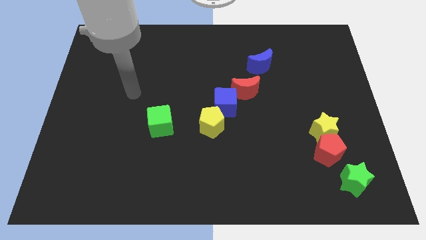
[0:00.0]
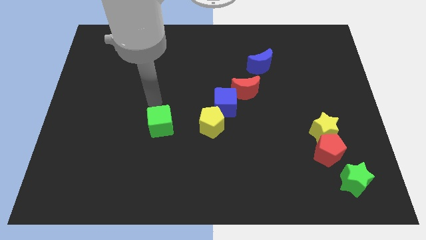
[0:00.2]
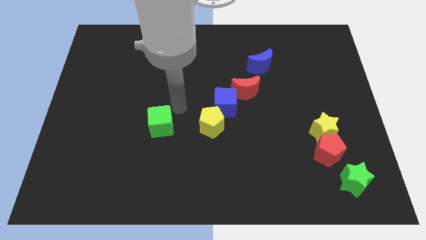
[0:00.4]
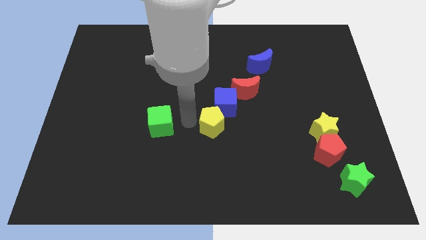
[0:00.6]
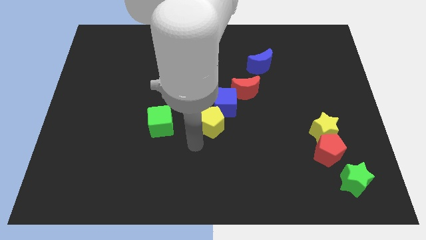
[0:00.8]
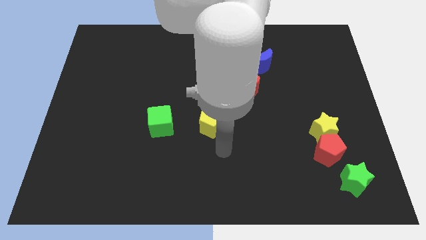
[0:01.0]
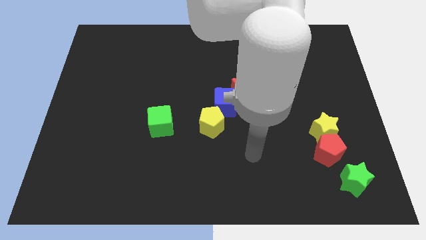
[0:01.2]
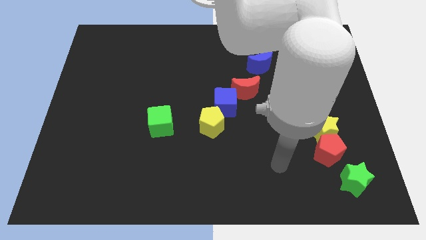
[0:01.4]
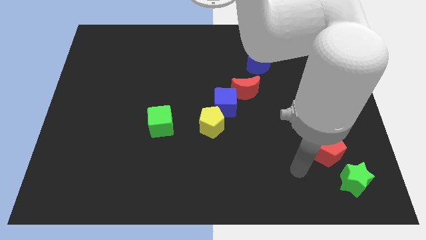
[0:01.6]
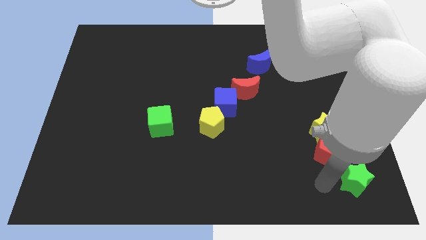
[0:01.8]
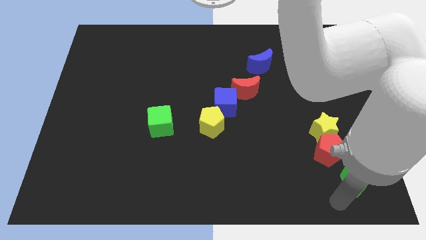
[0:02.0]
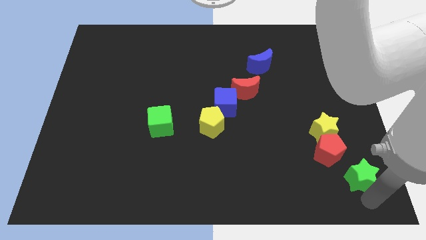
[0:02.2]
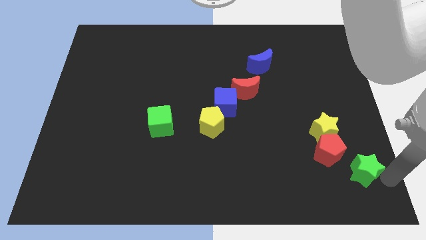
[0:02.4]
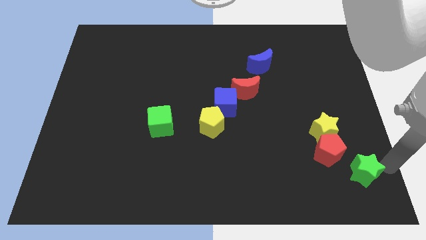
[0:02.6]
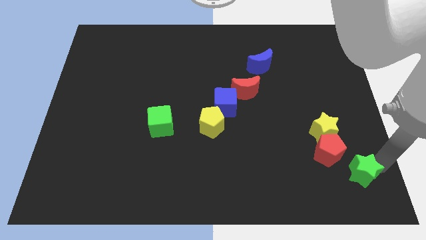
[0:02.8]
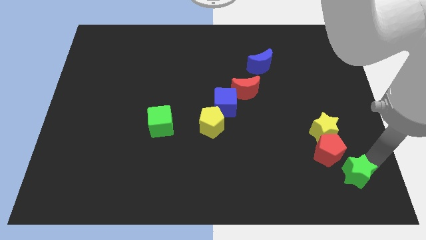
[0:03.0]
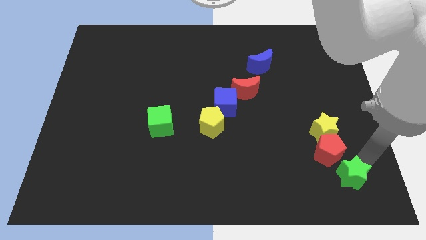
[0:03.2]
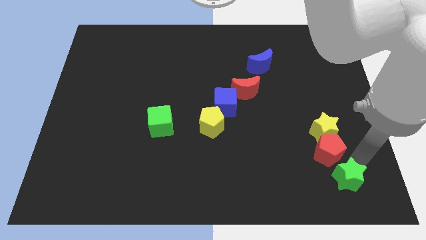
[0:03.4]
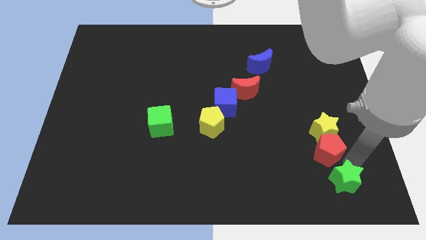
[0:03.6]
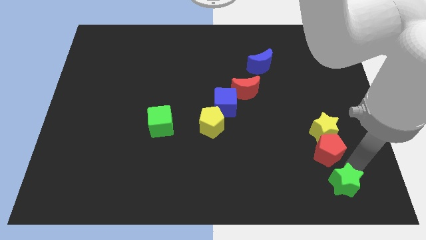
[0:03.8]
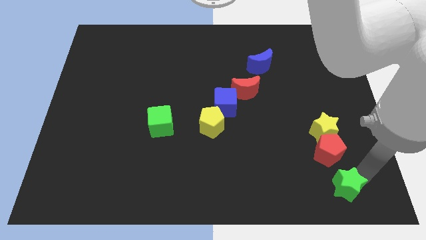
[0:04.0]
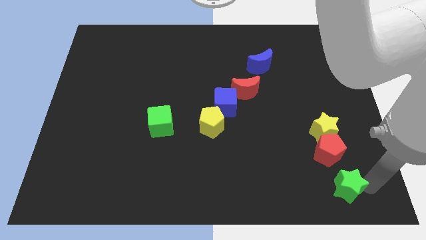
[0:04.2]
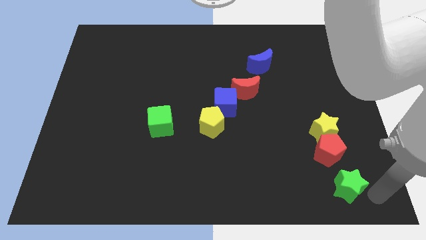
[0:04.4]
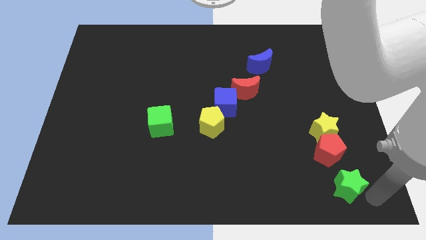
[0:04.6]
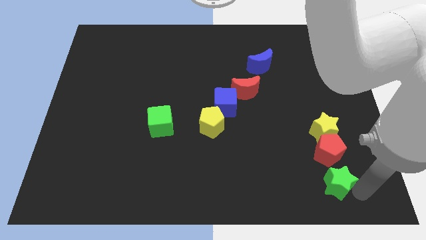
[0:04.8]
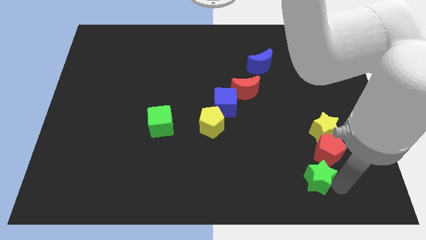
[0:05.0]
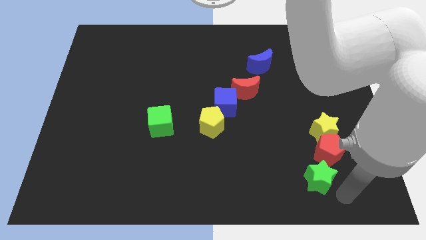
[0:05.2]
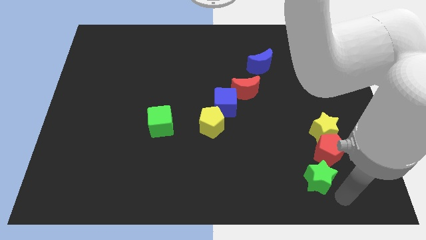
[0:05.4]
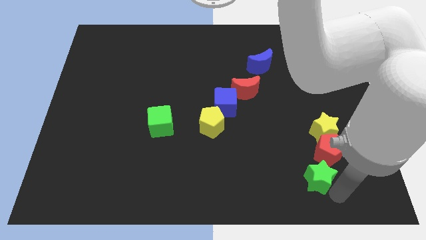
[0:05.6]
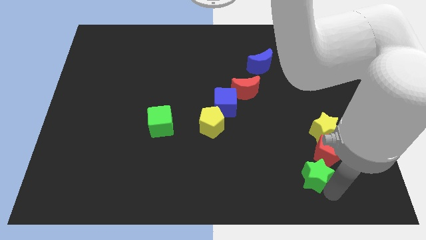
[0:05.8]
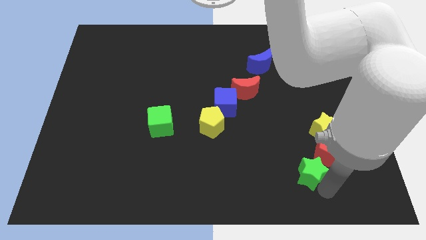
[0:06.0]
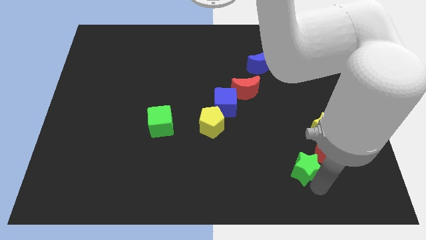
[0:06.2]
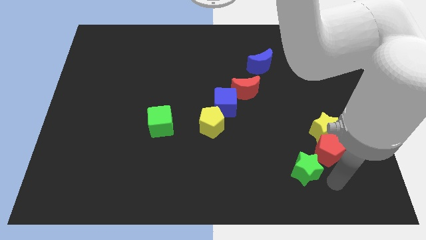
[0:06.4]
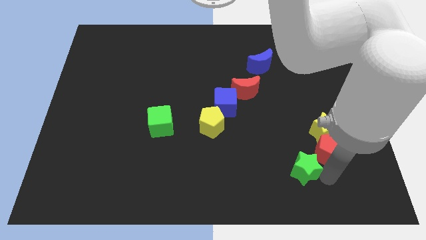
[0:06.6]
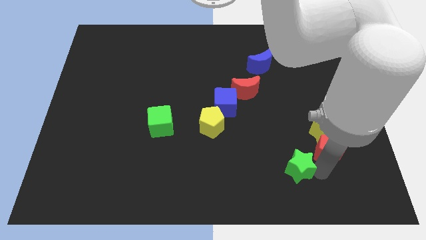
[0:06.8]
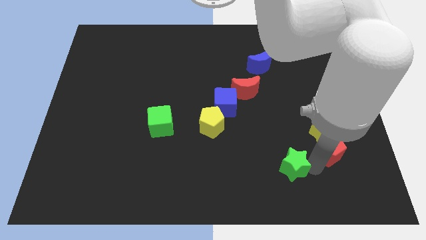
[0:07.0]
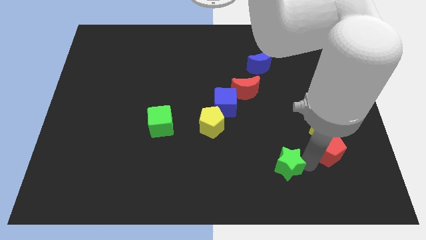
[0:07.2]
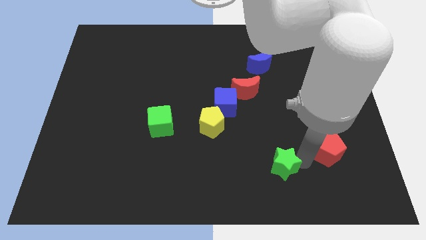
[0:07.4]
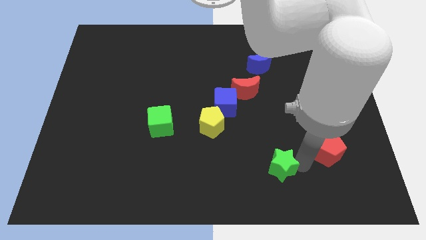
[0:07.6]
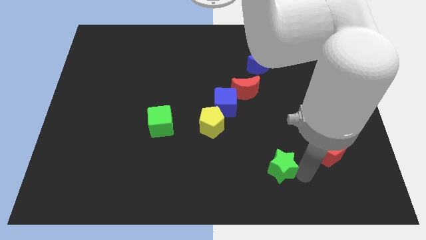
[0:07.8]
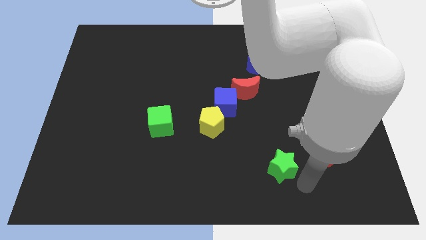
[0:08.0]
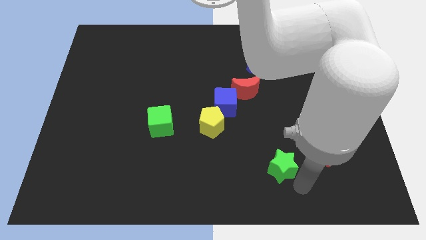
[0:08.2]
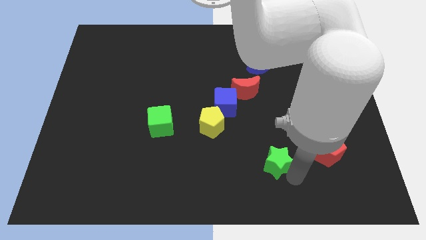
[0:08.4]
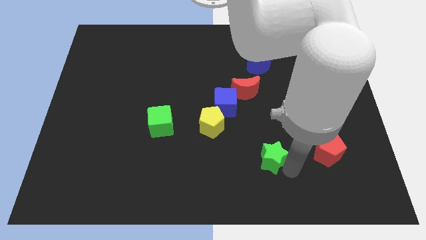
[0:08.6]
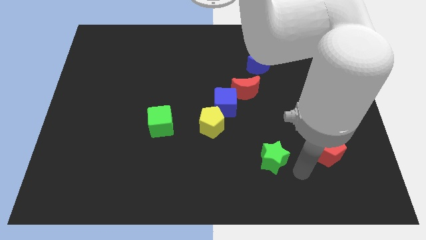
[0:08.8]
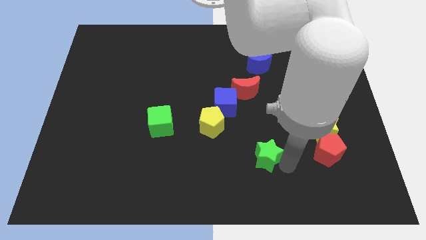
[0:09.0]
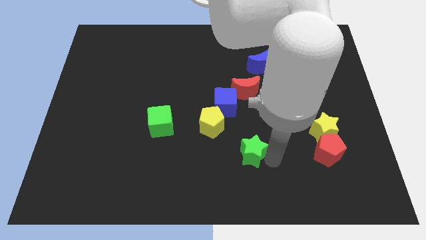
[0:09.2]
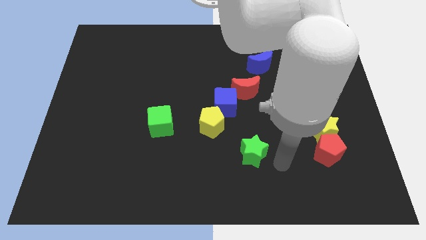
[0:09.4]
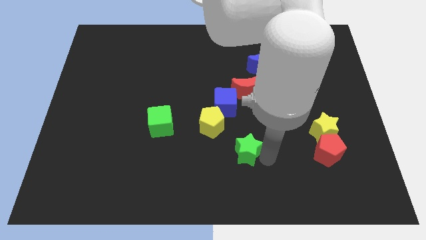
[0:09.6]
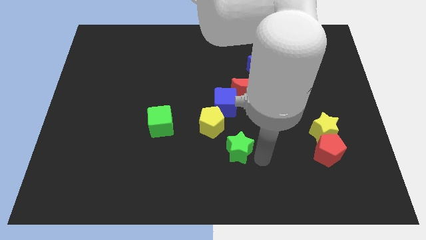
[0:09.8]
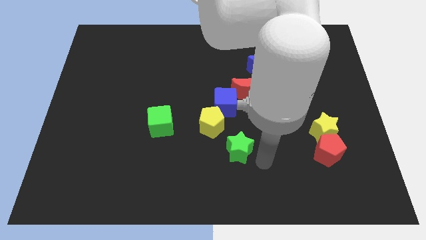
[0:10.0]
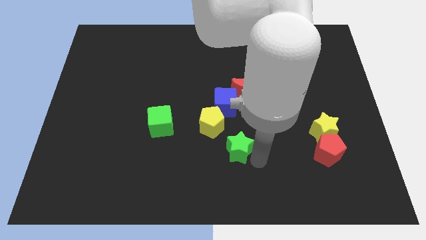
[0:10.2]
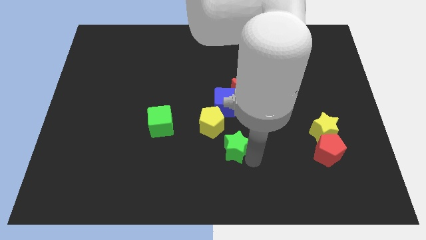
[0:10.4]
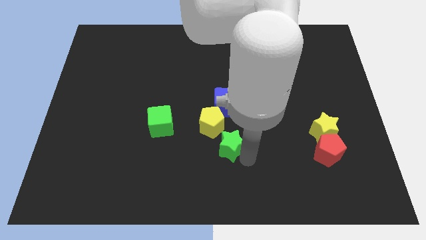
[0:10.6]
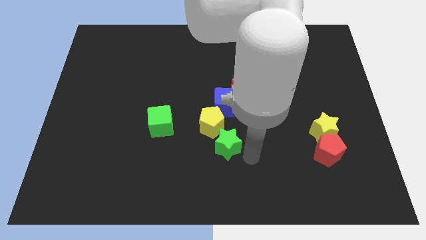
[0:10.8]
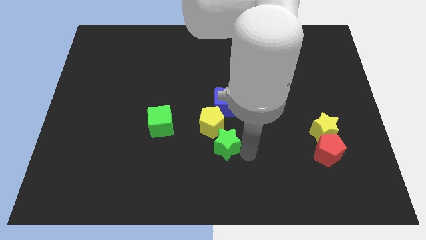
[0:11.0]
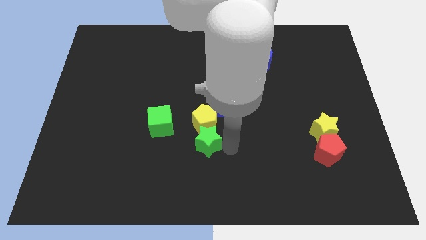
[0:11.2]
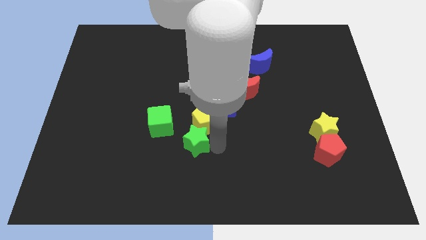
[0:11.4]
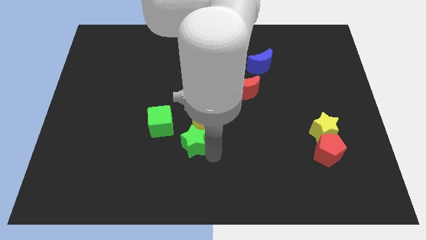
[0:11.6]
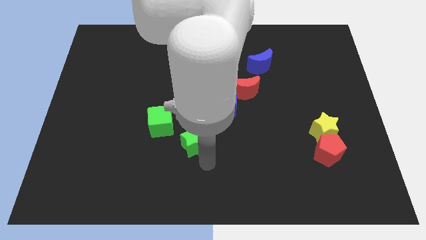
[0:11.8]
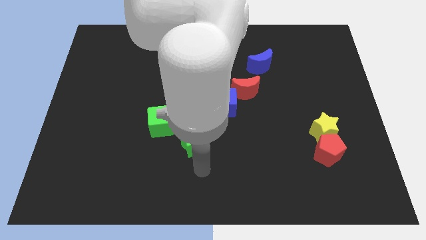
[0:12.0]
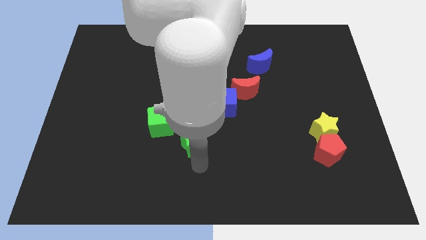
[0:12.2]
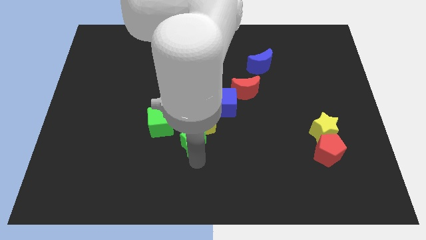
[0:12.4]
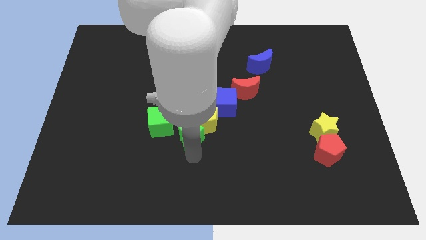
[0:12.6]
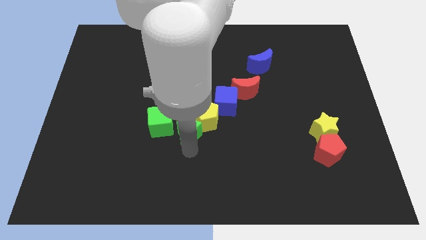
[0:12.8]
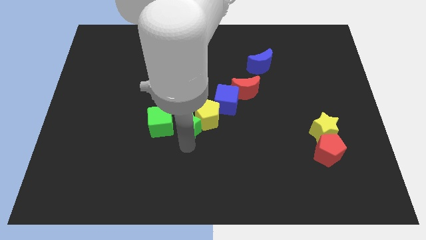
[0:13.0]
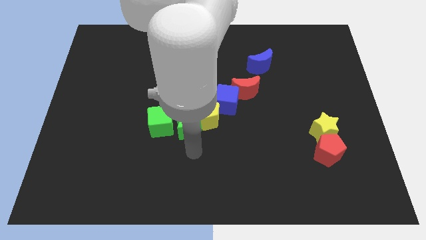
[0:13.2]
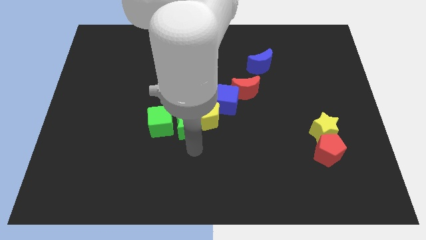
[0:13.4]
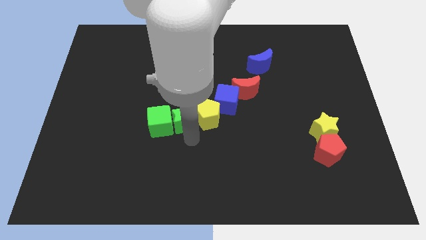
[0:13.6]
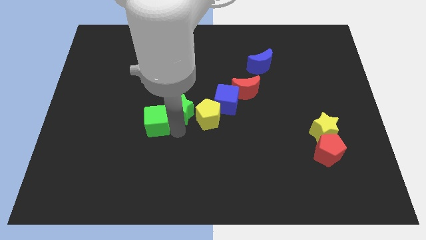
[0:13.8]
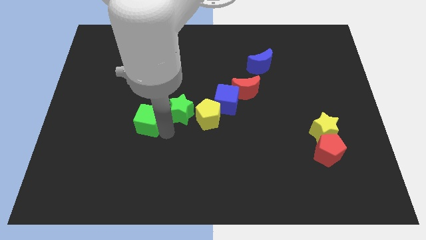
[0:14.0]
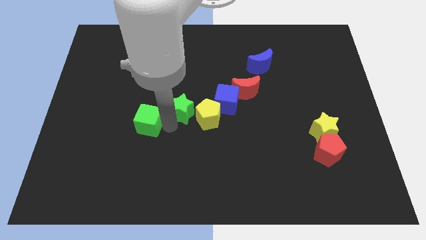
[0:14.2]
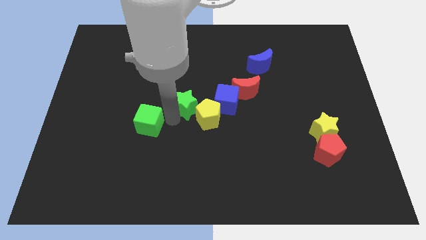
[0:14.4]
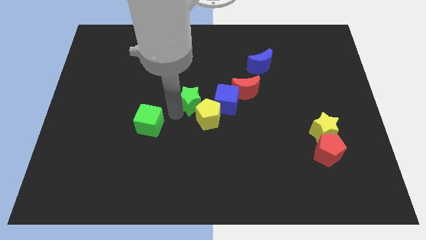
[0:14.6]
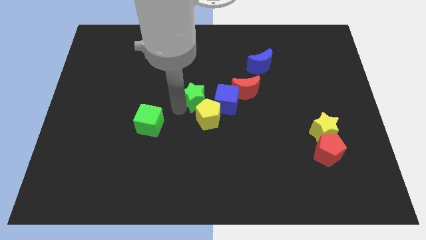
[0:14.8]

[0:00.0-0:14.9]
push the green star diagonally up and to the left of the blue cube
